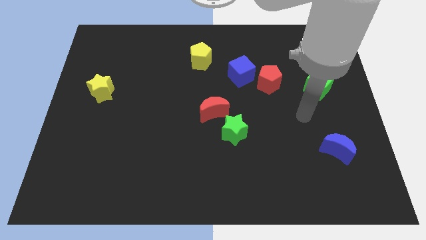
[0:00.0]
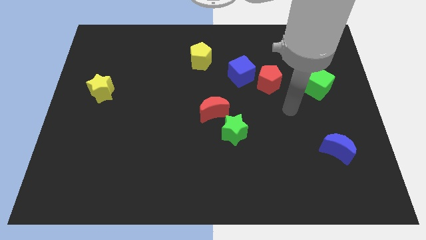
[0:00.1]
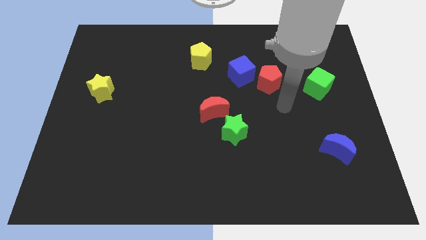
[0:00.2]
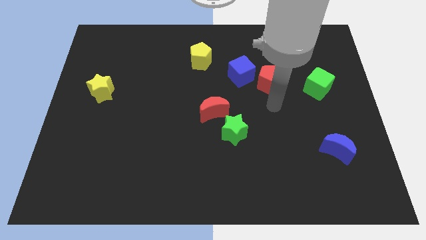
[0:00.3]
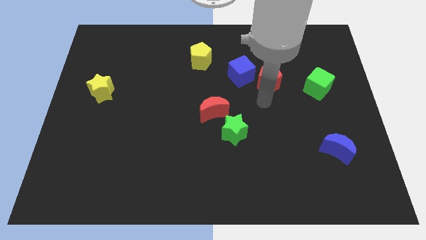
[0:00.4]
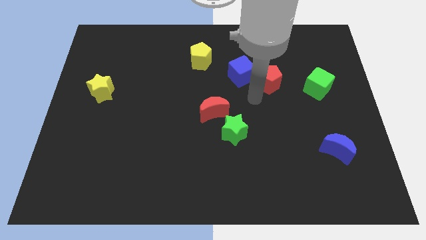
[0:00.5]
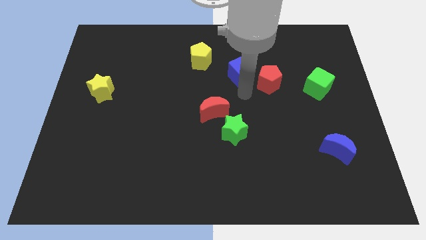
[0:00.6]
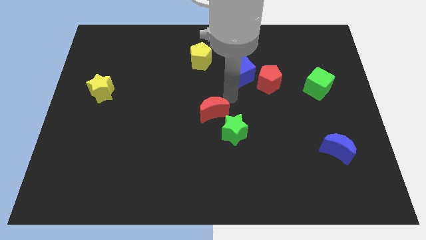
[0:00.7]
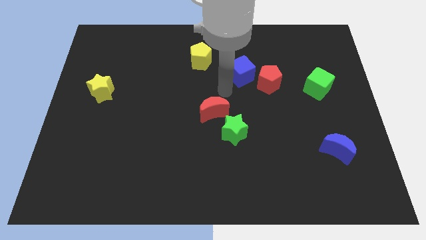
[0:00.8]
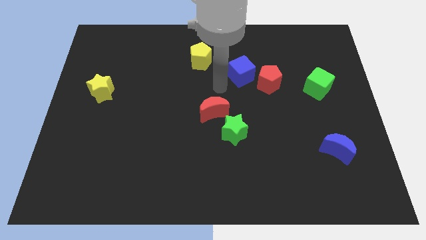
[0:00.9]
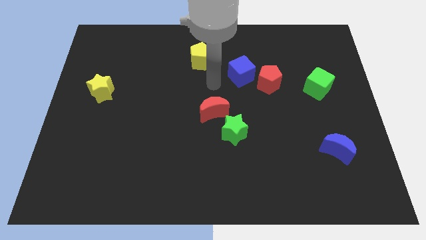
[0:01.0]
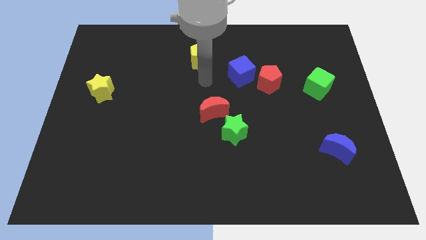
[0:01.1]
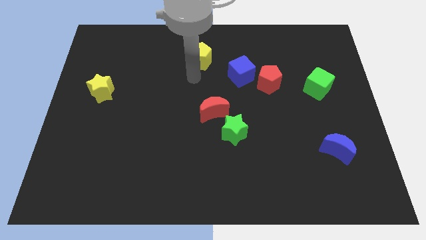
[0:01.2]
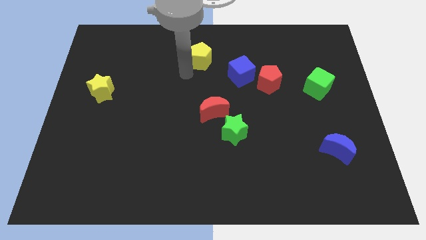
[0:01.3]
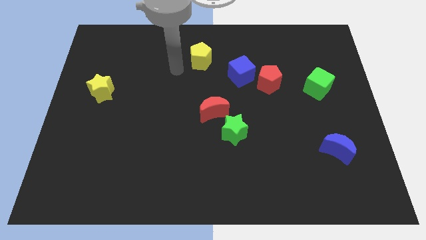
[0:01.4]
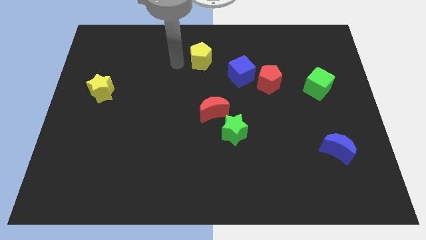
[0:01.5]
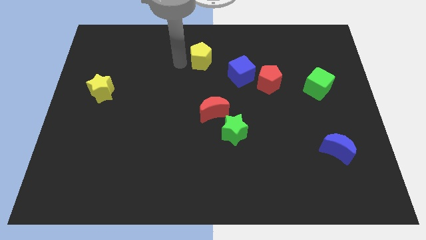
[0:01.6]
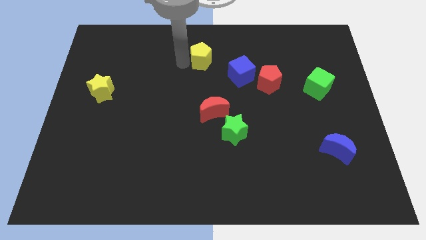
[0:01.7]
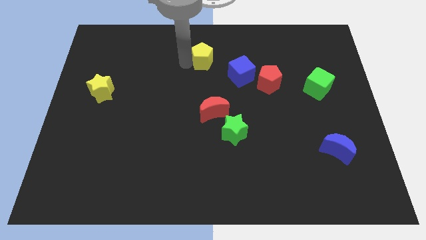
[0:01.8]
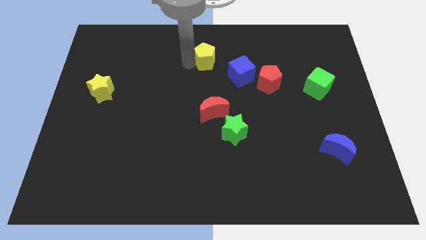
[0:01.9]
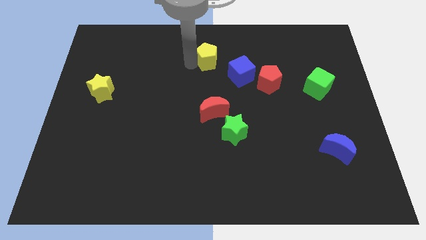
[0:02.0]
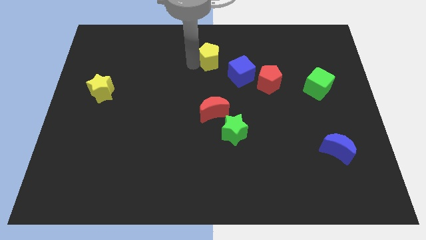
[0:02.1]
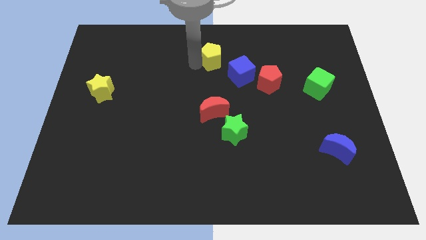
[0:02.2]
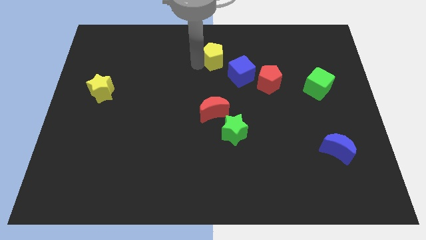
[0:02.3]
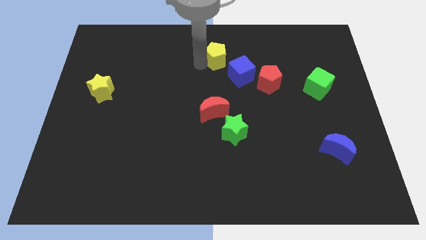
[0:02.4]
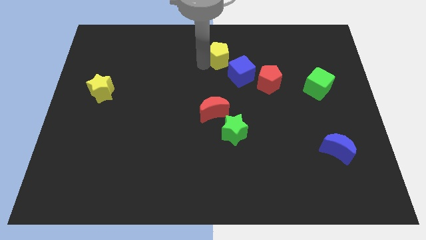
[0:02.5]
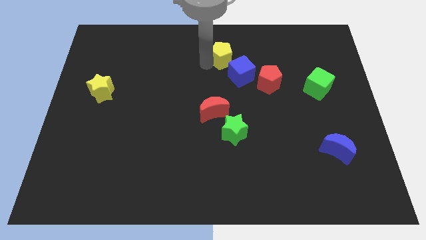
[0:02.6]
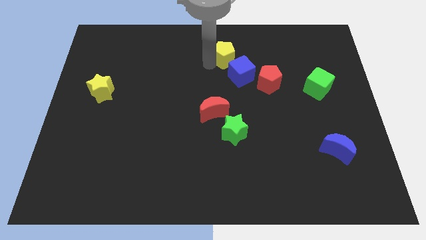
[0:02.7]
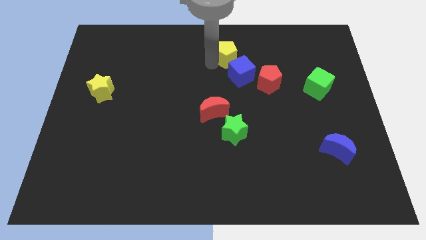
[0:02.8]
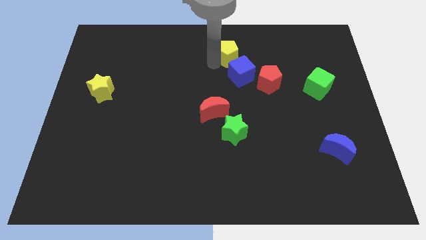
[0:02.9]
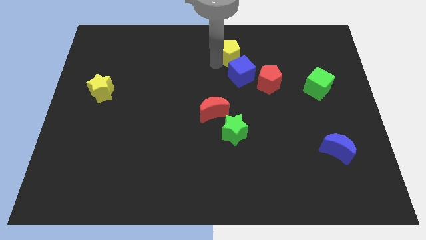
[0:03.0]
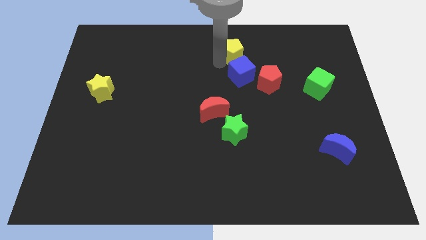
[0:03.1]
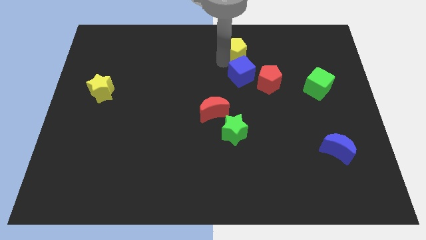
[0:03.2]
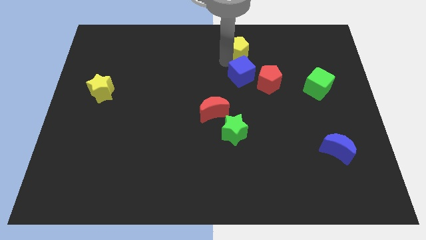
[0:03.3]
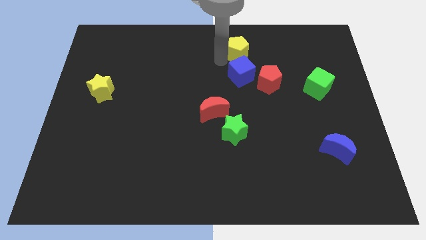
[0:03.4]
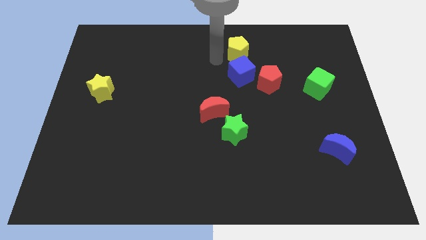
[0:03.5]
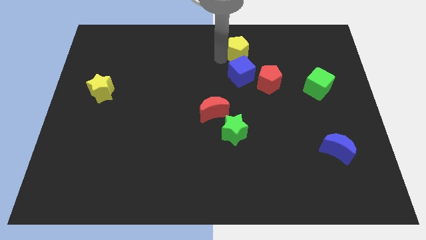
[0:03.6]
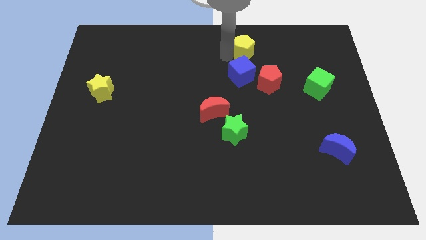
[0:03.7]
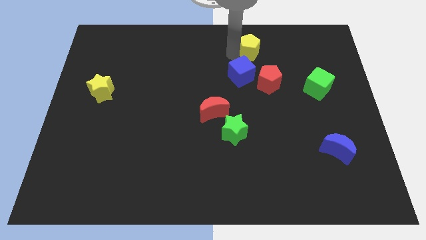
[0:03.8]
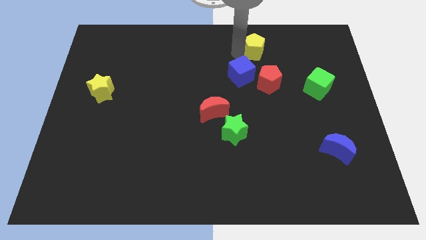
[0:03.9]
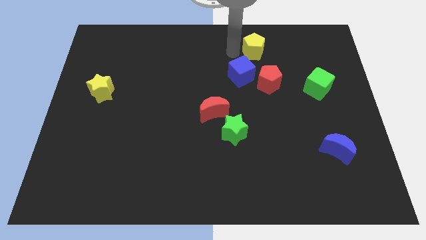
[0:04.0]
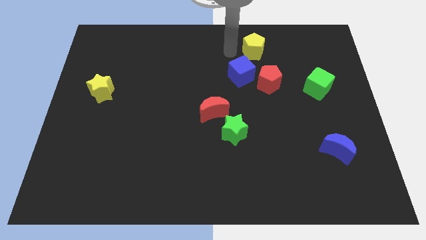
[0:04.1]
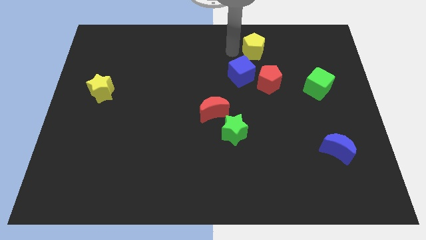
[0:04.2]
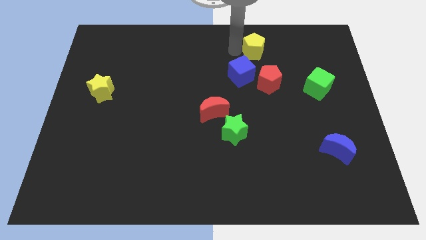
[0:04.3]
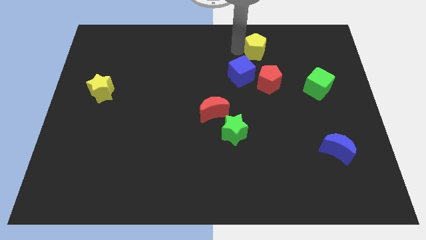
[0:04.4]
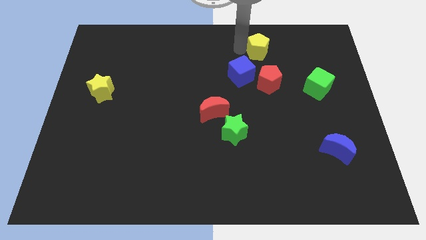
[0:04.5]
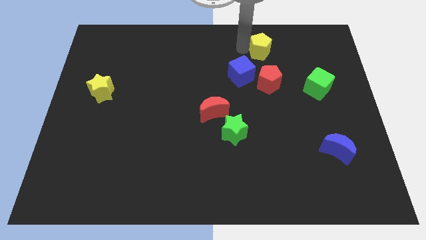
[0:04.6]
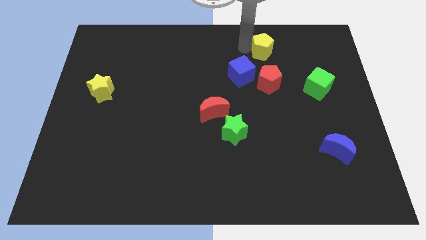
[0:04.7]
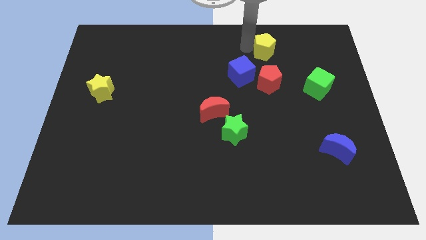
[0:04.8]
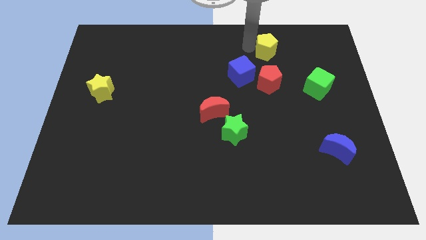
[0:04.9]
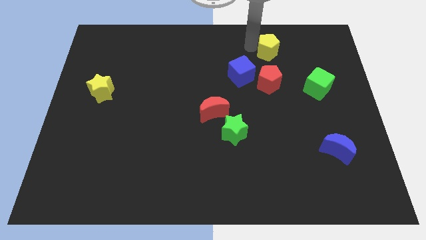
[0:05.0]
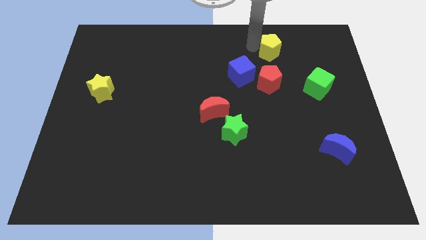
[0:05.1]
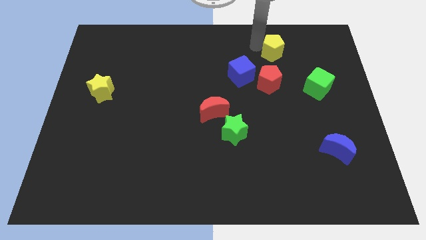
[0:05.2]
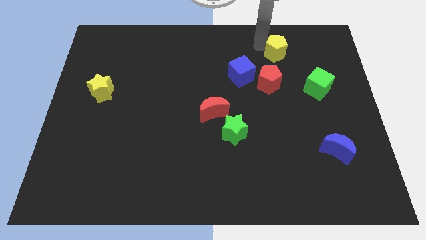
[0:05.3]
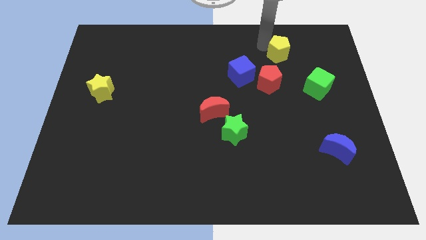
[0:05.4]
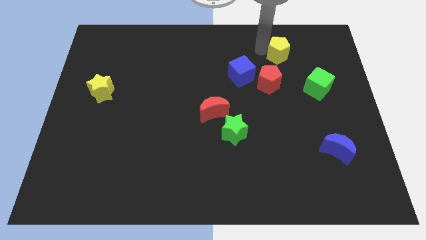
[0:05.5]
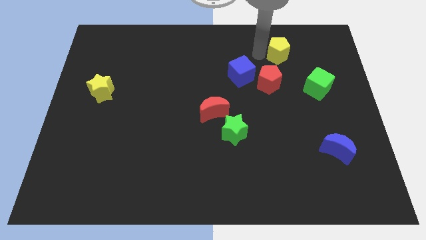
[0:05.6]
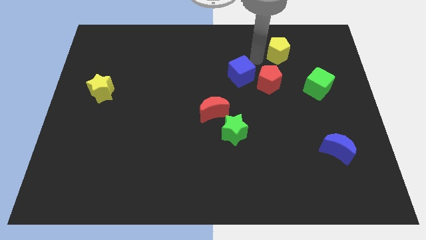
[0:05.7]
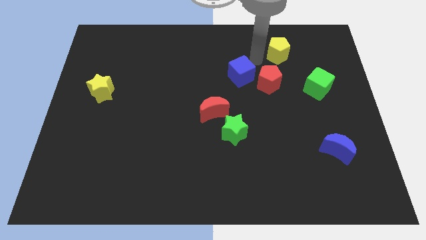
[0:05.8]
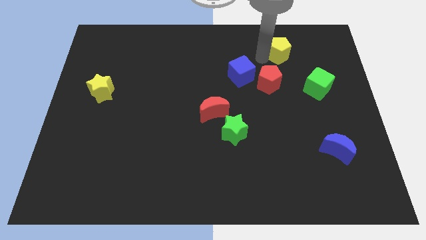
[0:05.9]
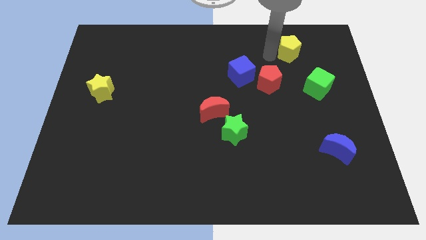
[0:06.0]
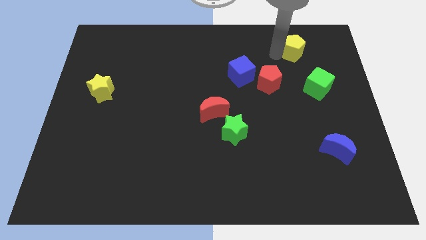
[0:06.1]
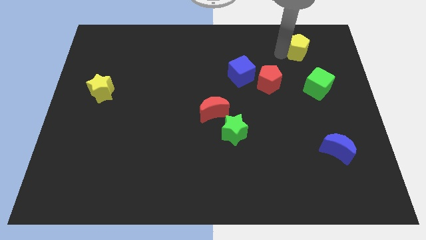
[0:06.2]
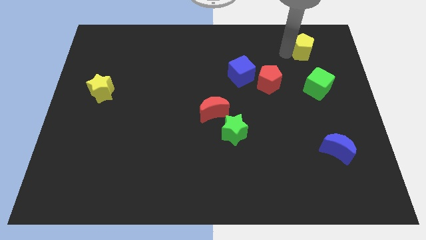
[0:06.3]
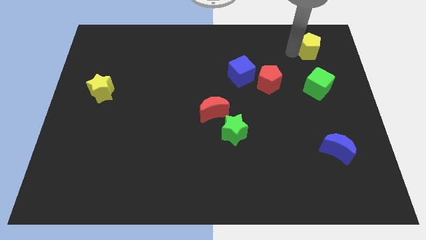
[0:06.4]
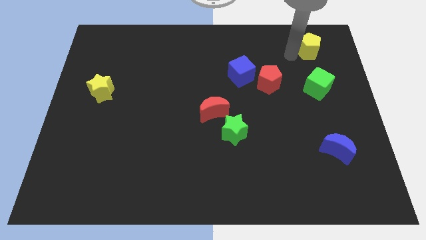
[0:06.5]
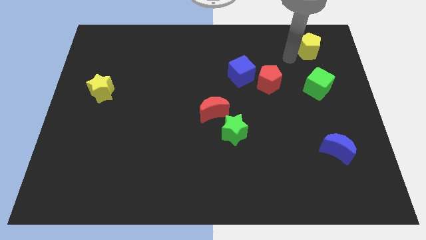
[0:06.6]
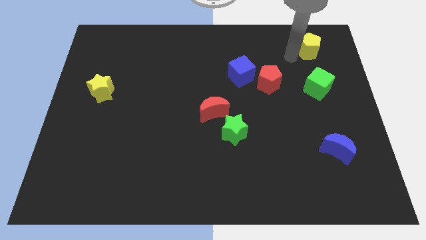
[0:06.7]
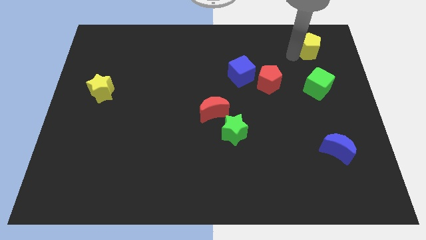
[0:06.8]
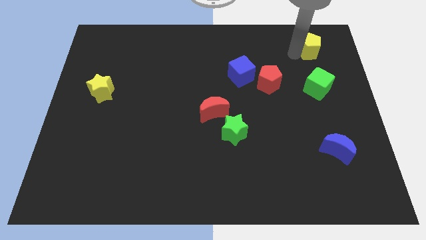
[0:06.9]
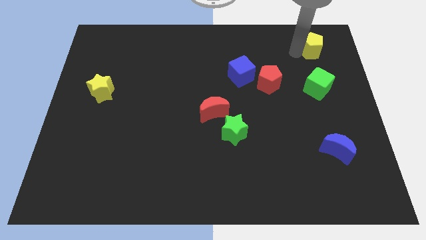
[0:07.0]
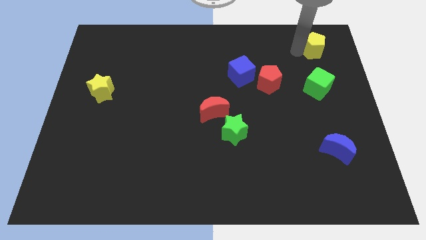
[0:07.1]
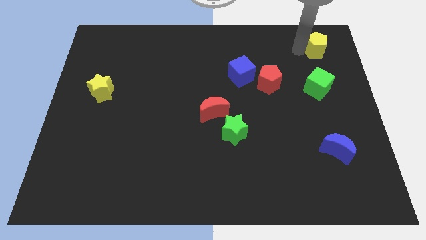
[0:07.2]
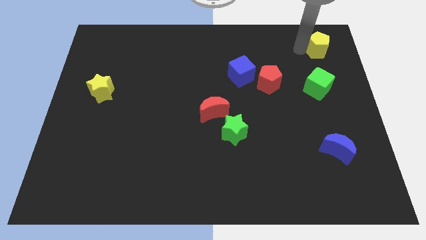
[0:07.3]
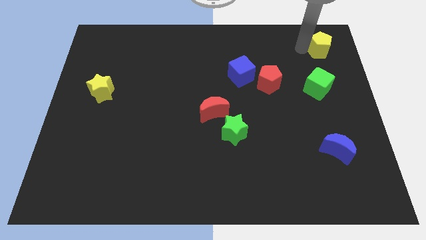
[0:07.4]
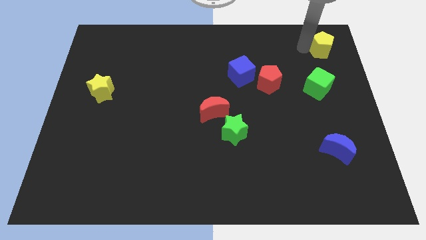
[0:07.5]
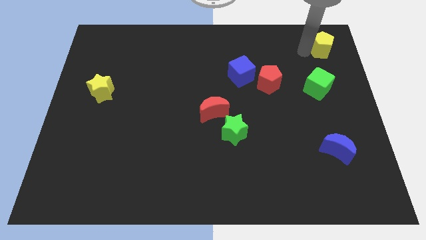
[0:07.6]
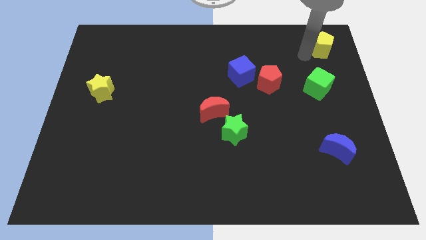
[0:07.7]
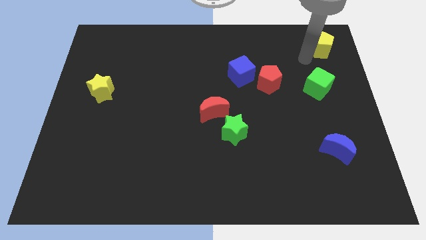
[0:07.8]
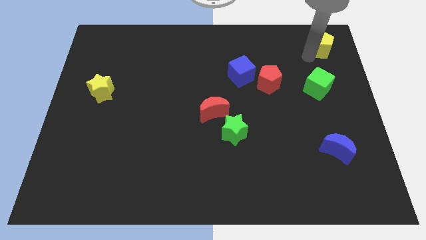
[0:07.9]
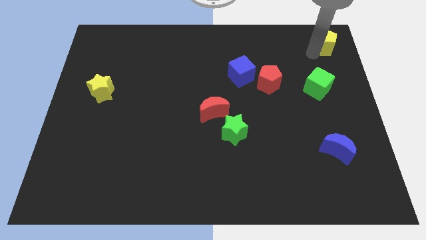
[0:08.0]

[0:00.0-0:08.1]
move the yellow pentagon to the top right corner
